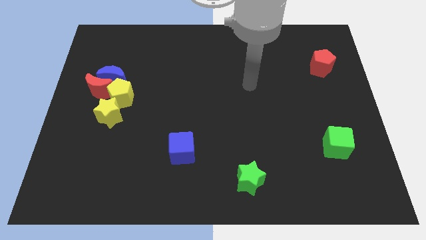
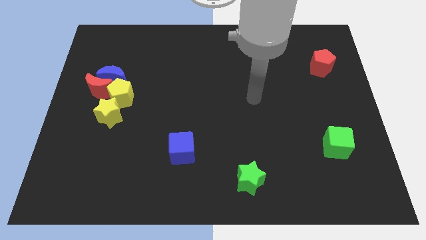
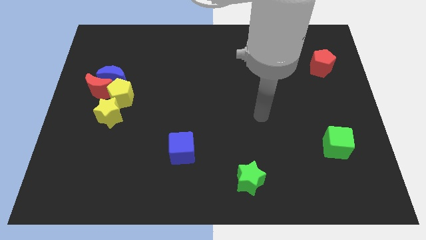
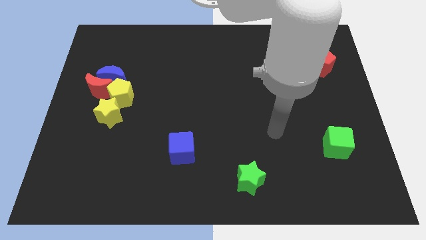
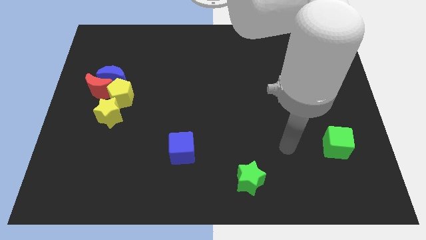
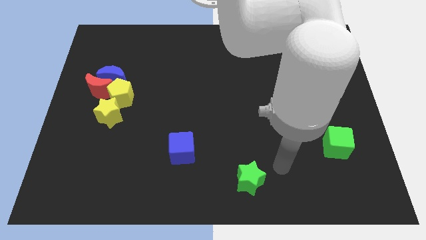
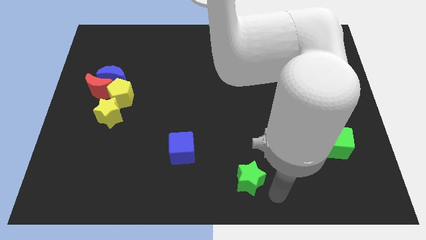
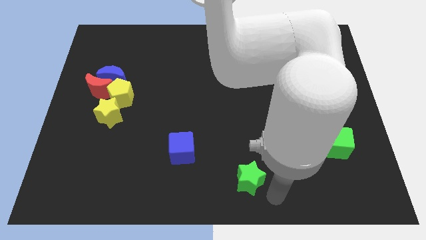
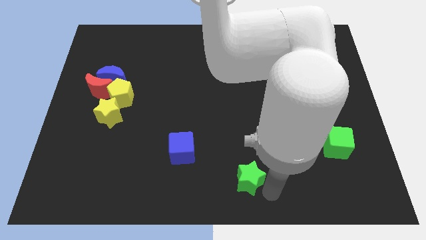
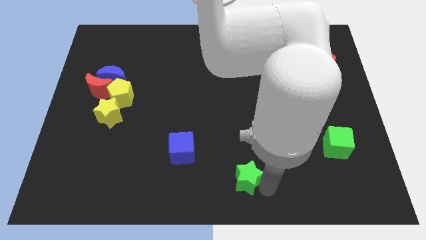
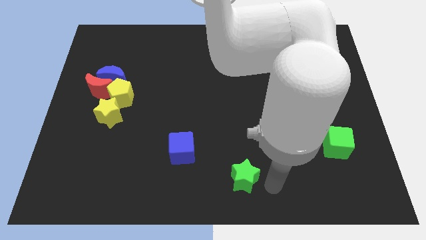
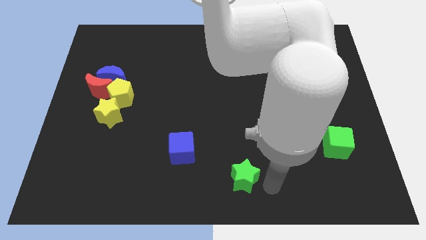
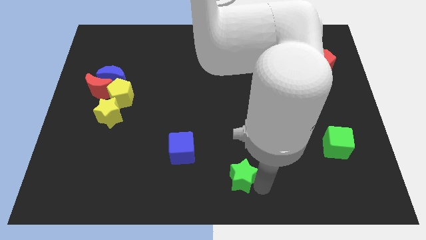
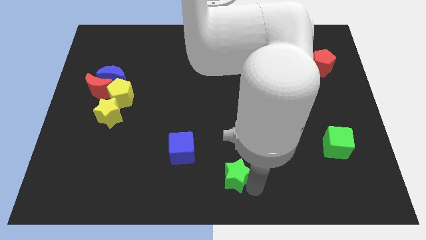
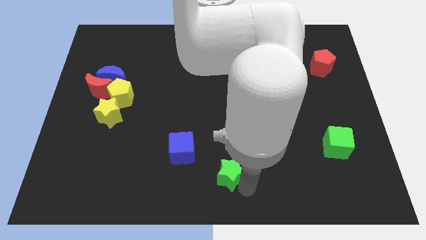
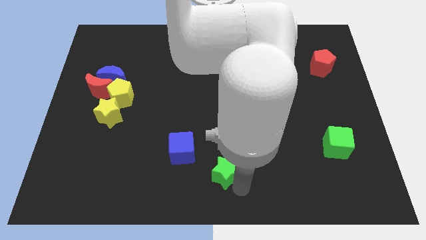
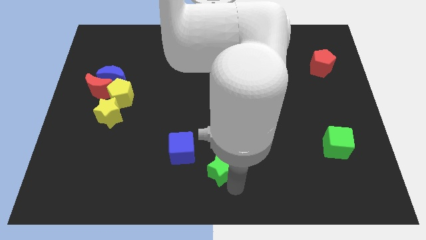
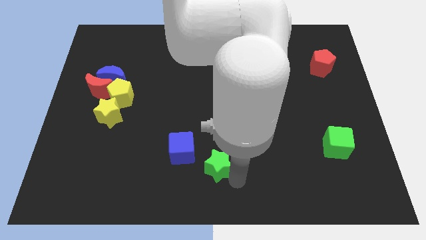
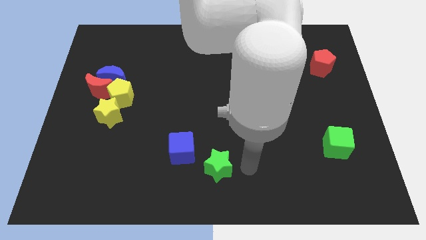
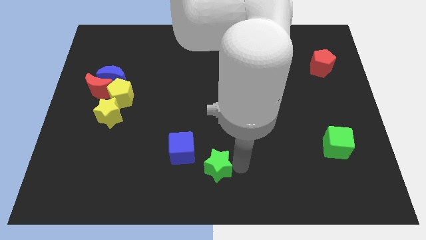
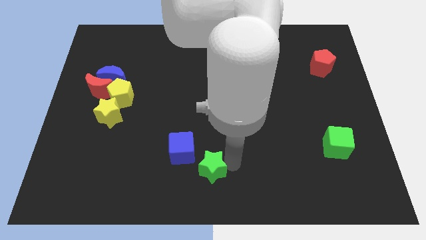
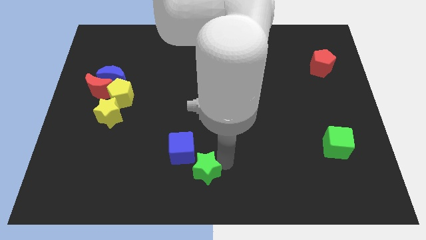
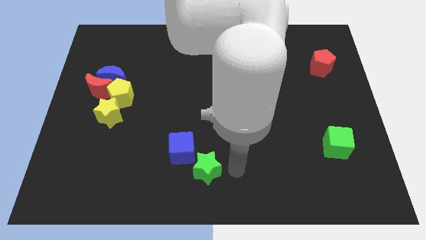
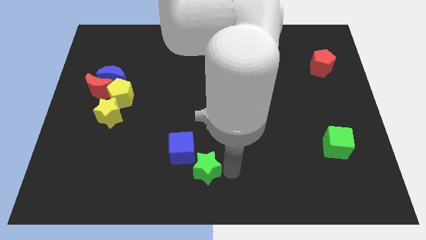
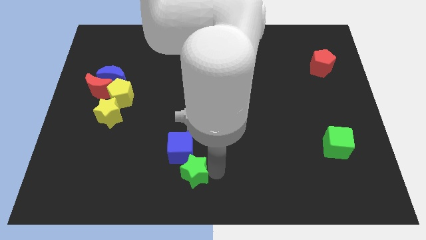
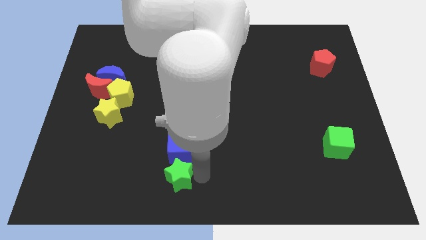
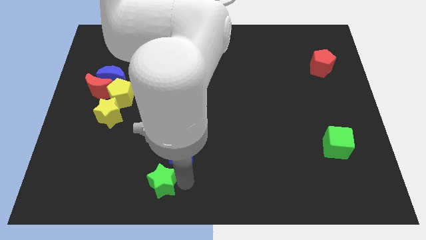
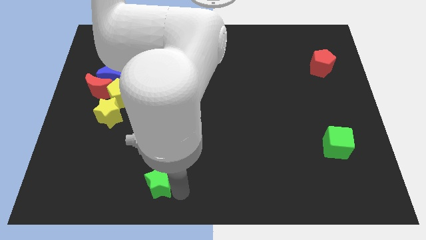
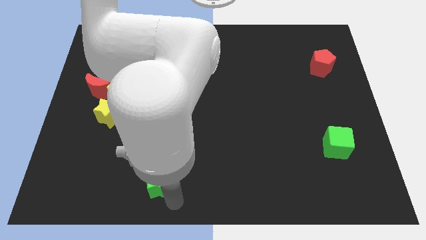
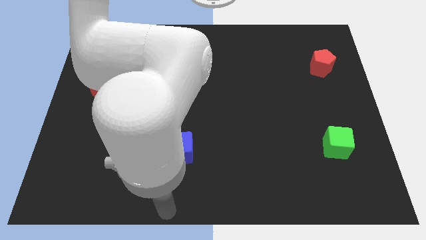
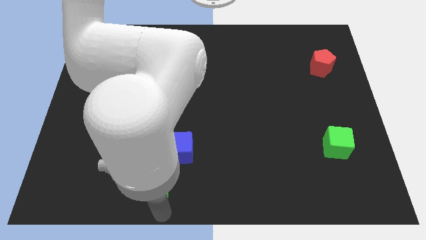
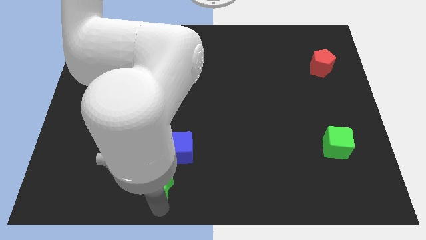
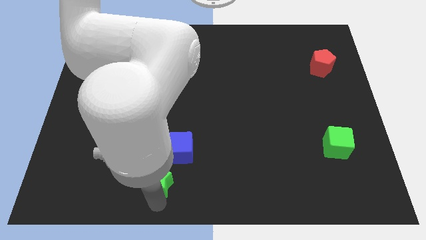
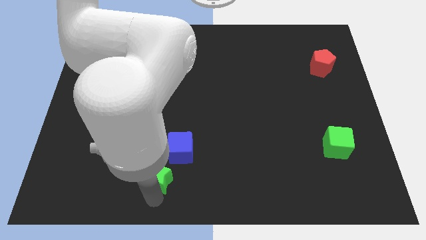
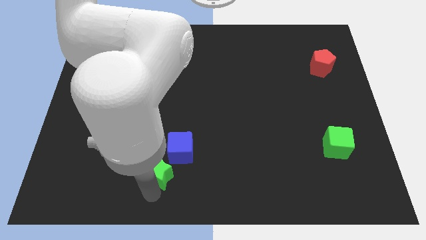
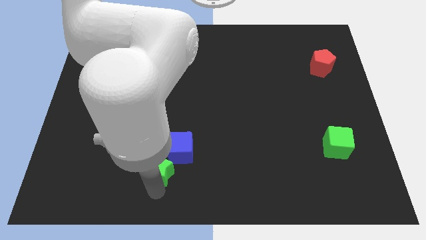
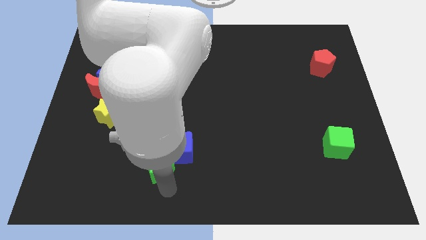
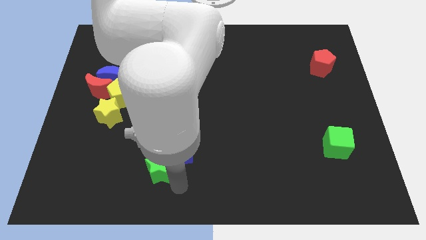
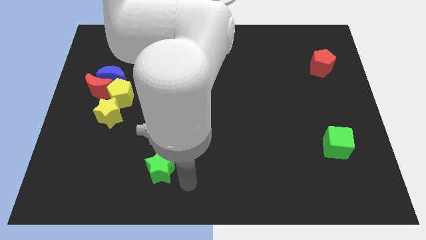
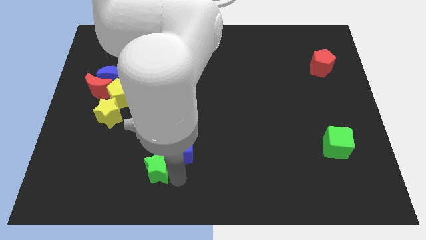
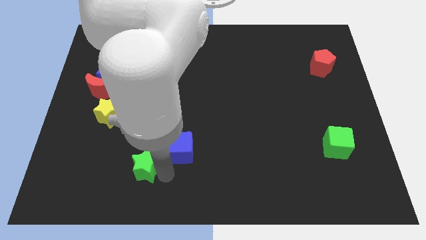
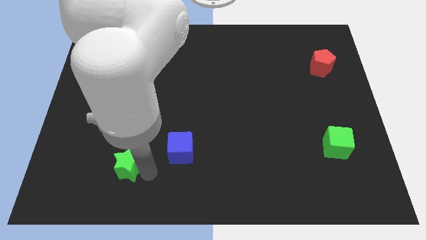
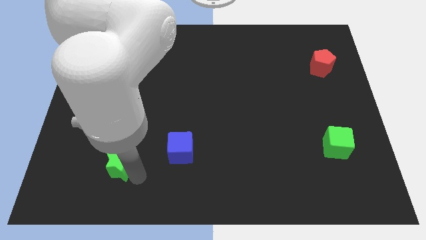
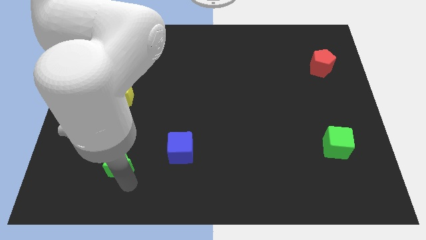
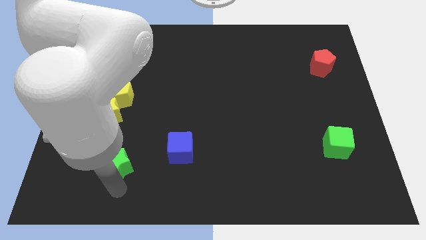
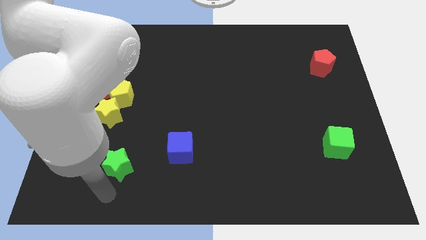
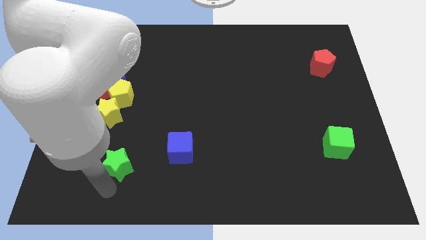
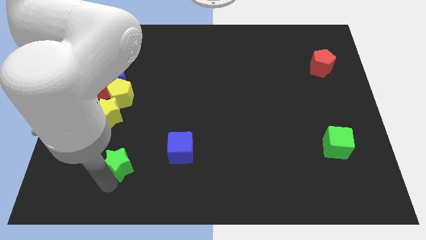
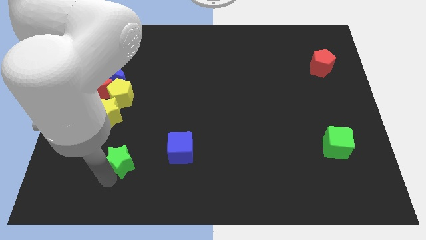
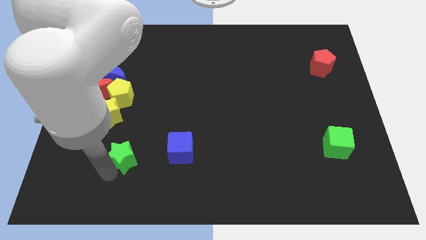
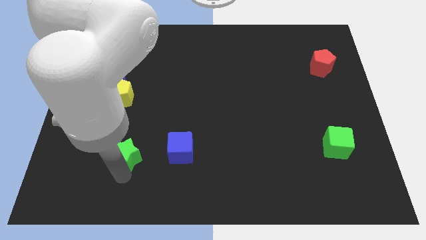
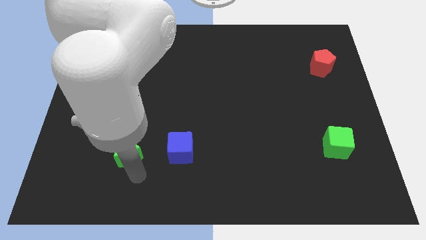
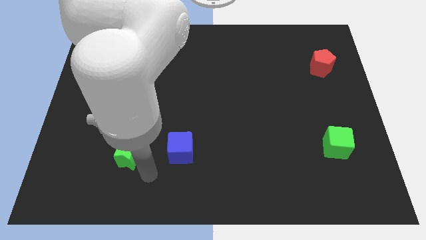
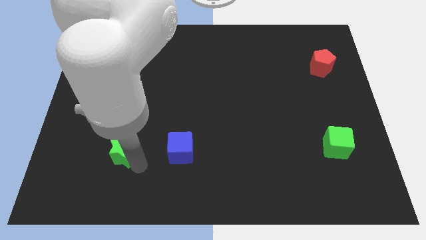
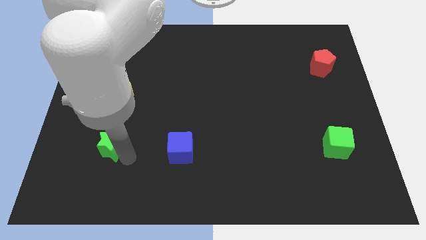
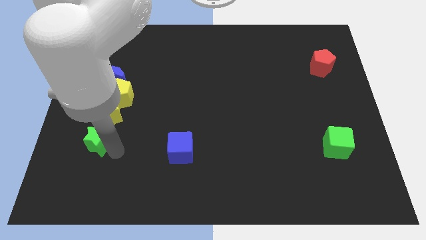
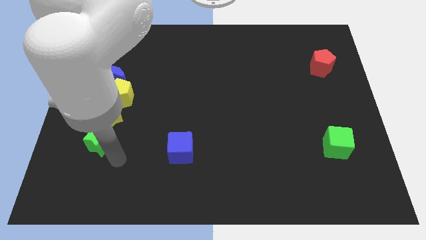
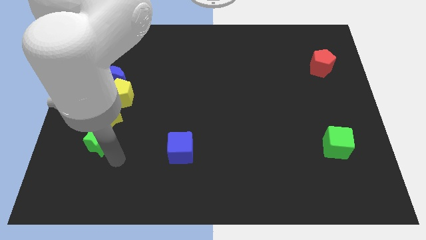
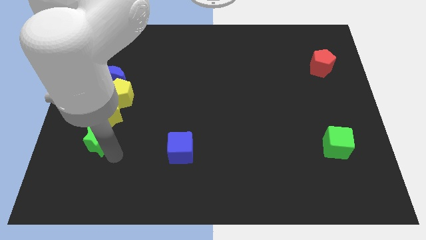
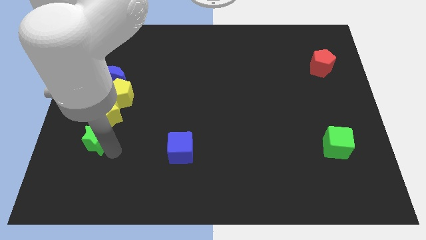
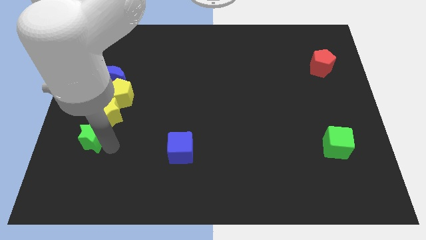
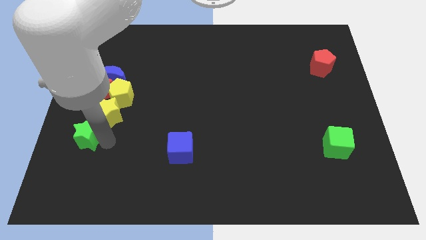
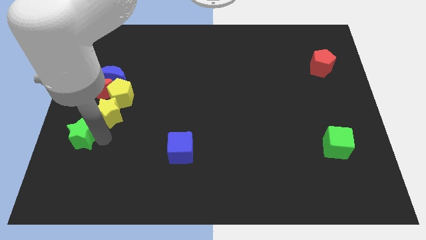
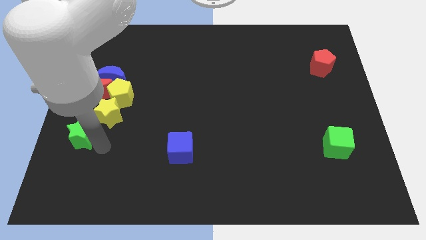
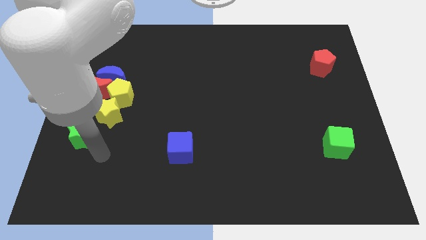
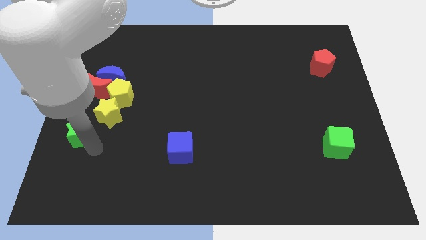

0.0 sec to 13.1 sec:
slide the green star to the left side of the board
